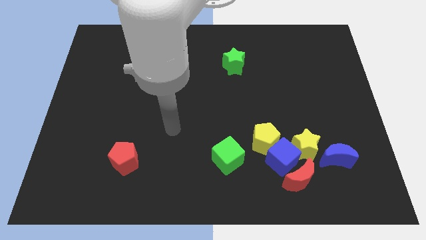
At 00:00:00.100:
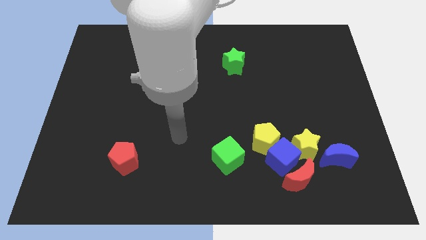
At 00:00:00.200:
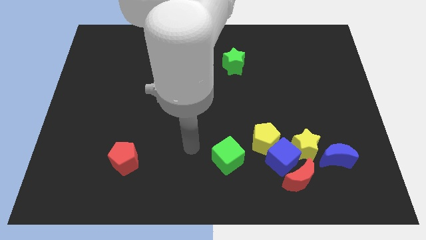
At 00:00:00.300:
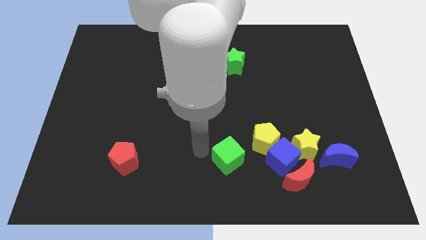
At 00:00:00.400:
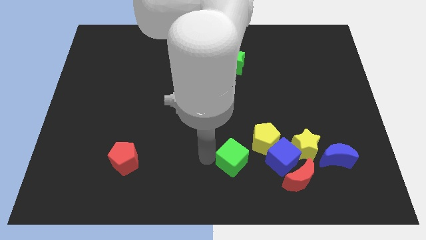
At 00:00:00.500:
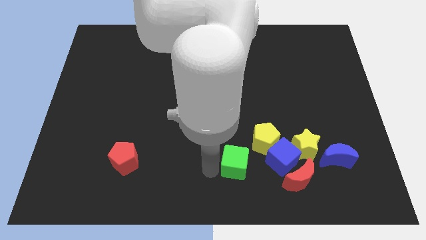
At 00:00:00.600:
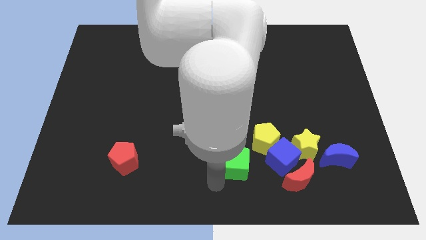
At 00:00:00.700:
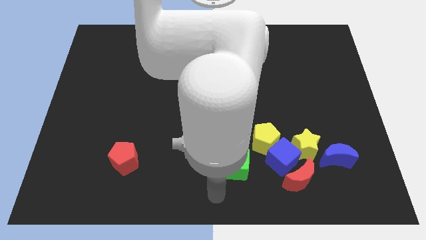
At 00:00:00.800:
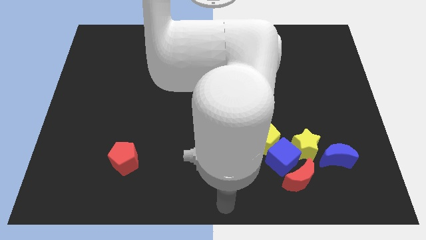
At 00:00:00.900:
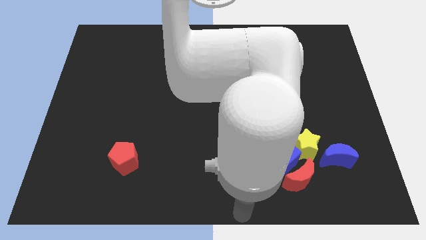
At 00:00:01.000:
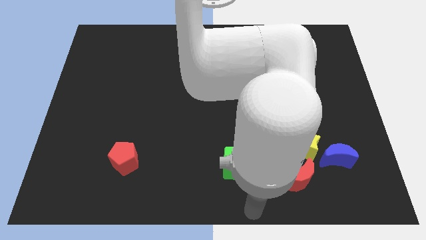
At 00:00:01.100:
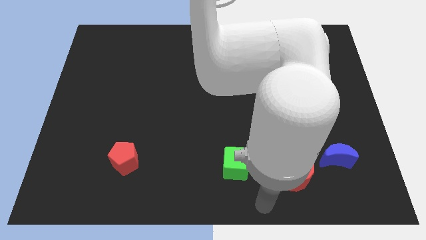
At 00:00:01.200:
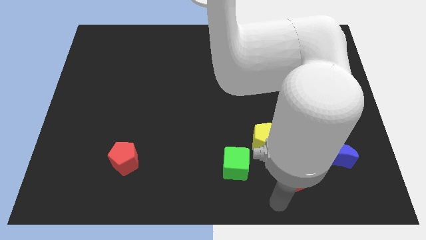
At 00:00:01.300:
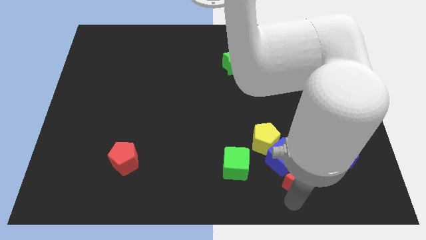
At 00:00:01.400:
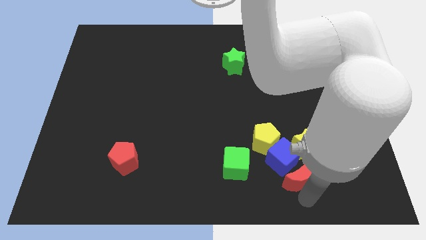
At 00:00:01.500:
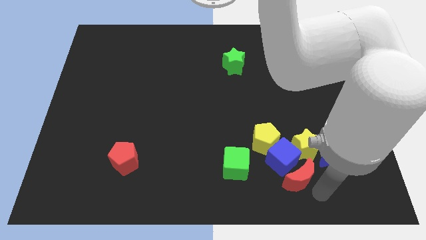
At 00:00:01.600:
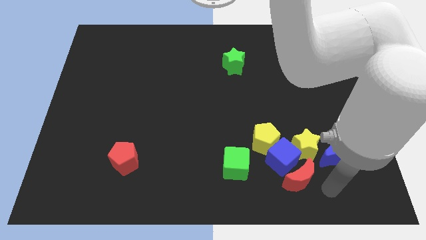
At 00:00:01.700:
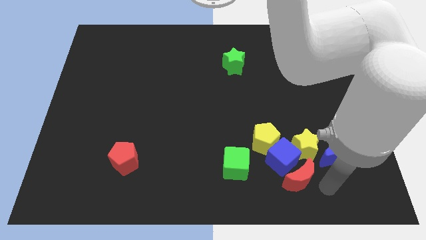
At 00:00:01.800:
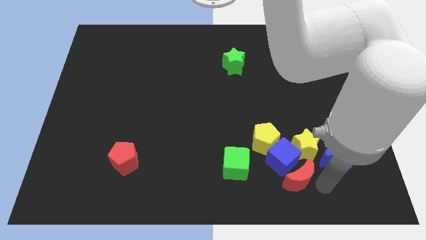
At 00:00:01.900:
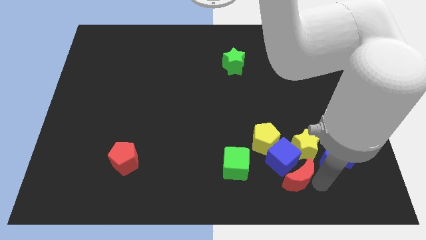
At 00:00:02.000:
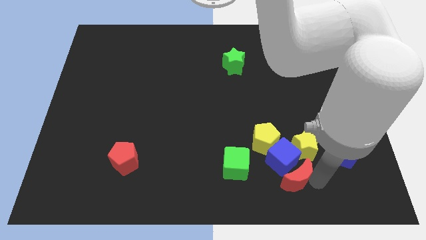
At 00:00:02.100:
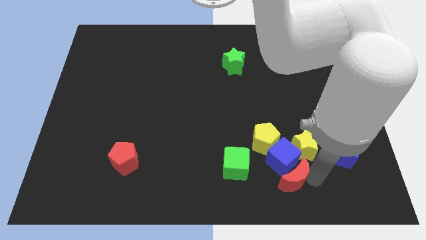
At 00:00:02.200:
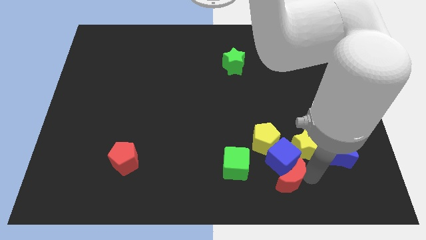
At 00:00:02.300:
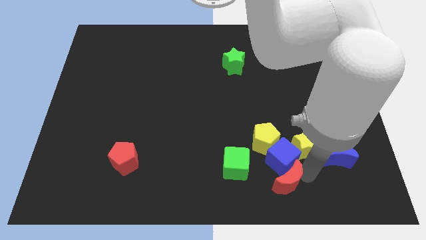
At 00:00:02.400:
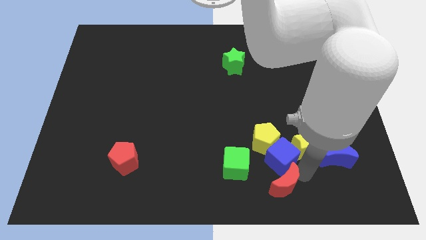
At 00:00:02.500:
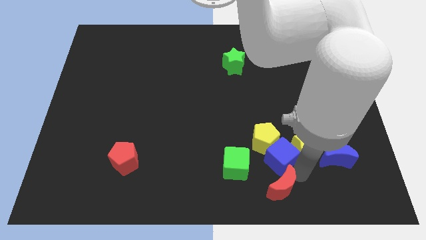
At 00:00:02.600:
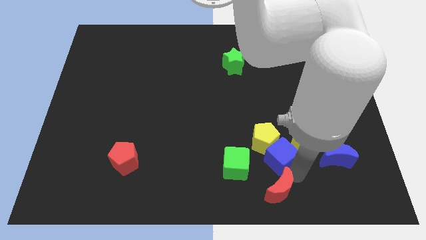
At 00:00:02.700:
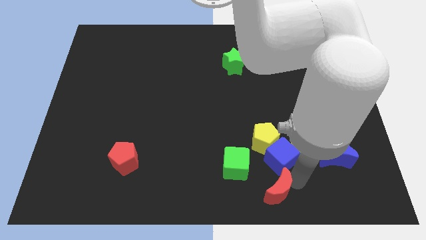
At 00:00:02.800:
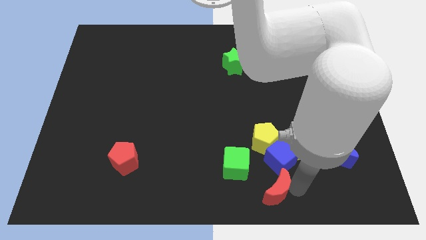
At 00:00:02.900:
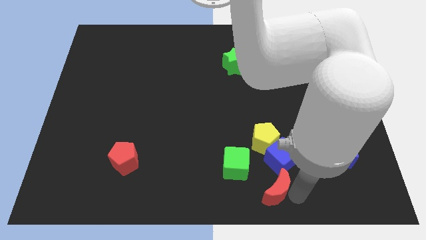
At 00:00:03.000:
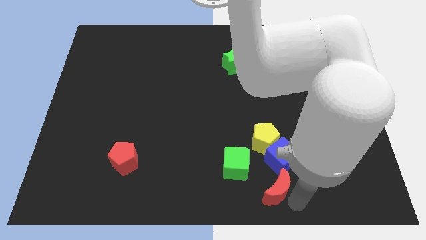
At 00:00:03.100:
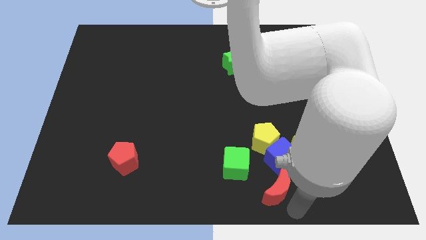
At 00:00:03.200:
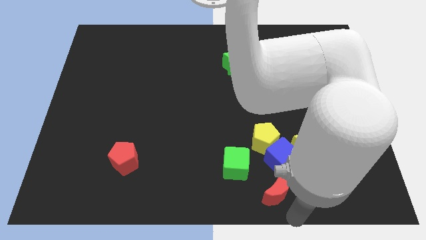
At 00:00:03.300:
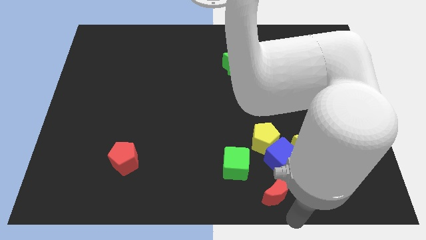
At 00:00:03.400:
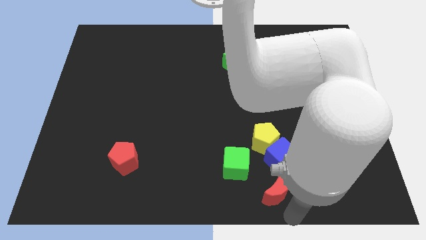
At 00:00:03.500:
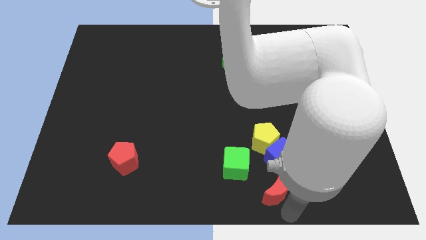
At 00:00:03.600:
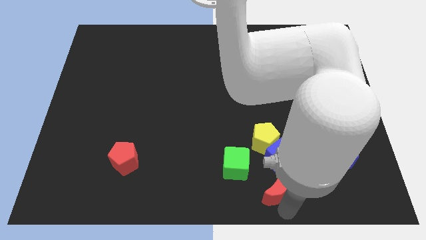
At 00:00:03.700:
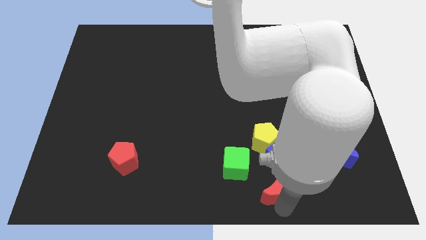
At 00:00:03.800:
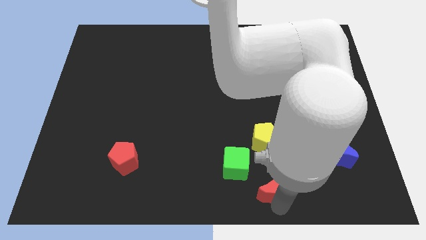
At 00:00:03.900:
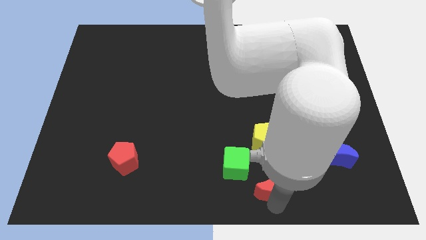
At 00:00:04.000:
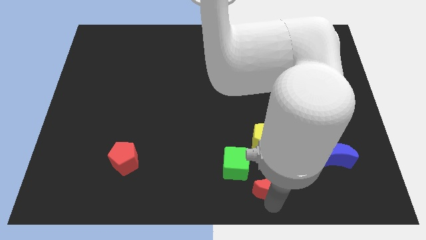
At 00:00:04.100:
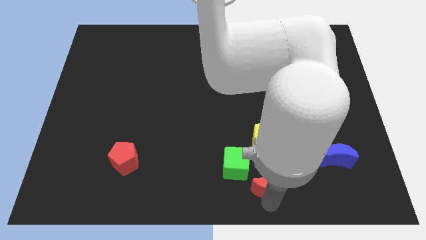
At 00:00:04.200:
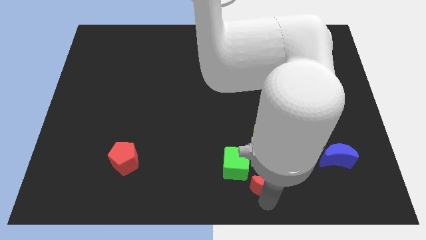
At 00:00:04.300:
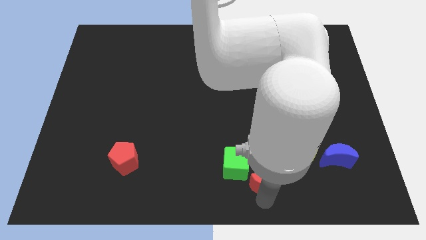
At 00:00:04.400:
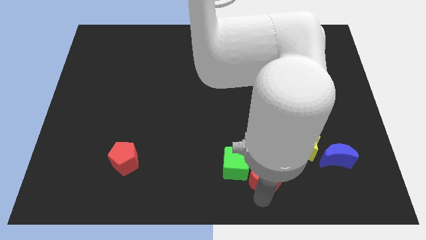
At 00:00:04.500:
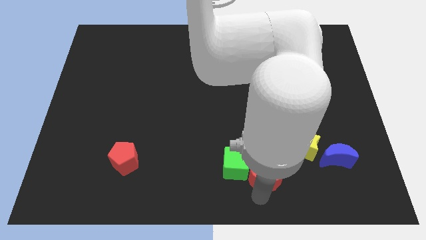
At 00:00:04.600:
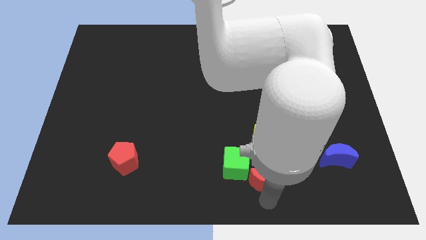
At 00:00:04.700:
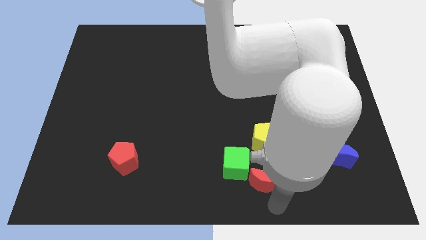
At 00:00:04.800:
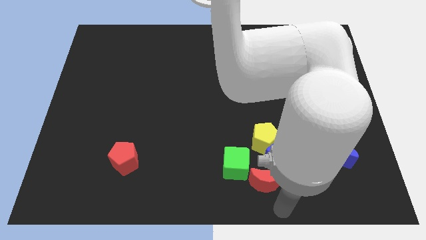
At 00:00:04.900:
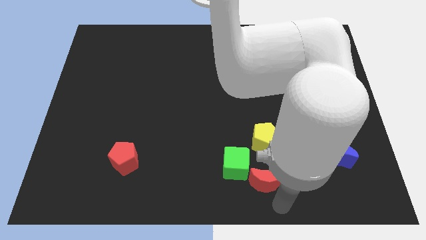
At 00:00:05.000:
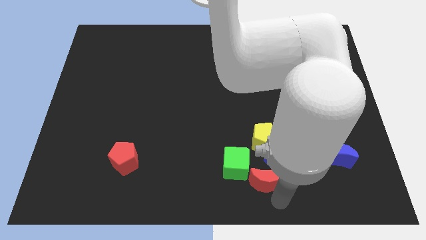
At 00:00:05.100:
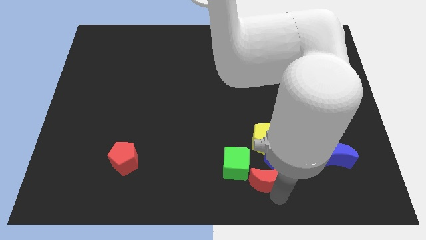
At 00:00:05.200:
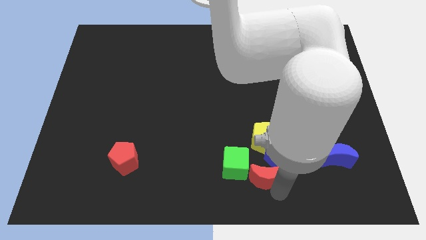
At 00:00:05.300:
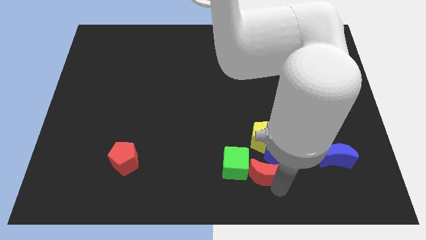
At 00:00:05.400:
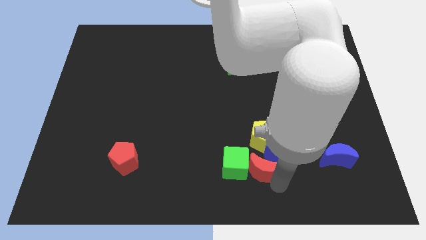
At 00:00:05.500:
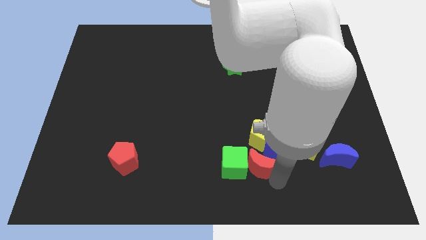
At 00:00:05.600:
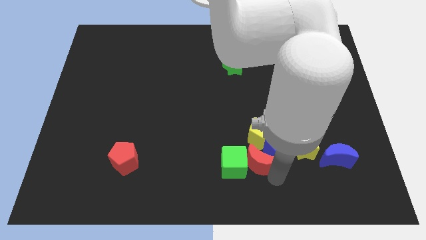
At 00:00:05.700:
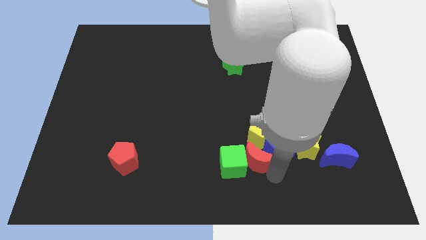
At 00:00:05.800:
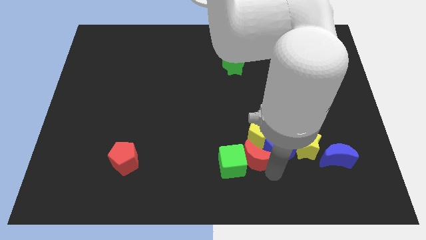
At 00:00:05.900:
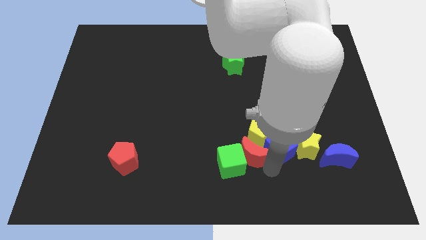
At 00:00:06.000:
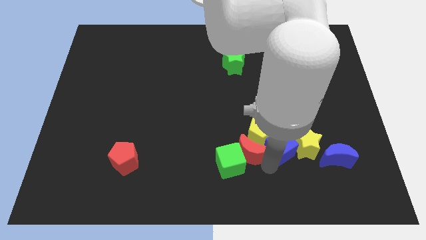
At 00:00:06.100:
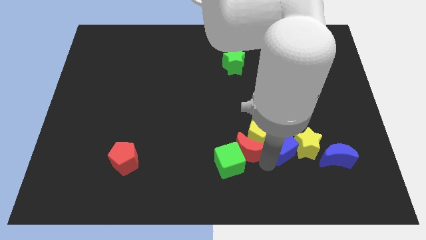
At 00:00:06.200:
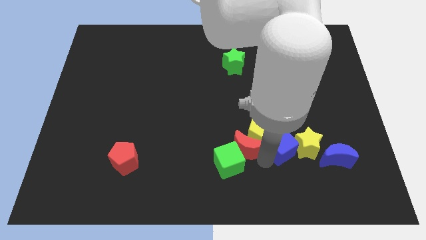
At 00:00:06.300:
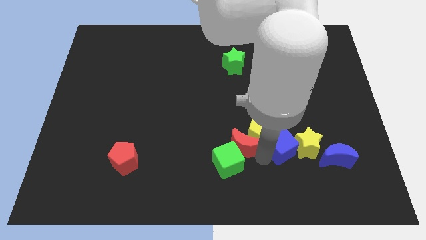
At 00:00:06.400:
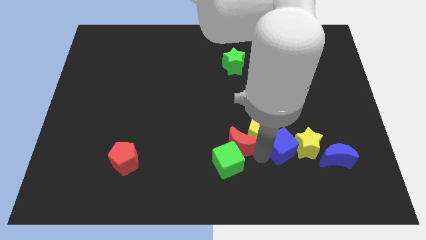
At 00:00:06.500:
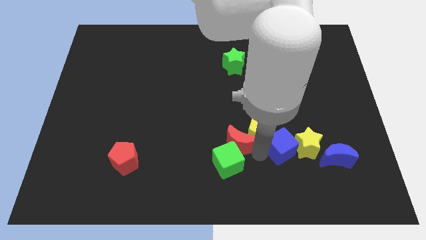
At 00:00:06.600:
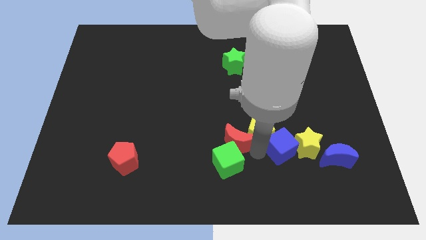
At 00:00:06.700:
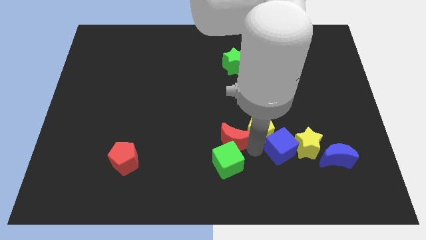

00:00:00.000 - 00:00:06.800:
slide the red moon to the middle
